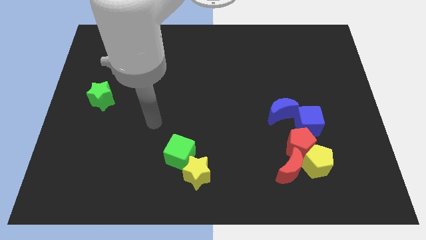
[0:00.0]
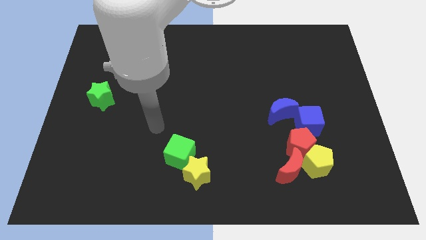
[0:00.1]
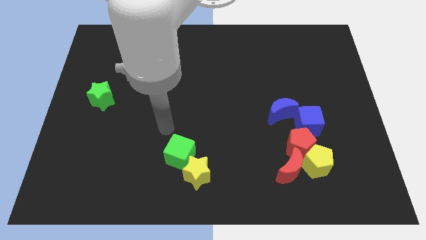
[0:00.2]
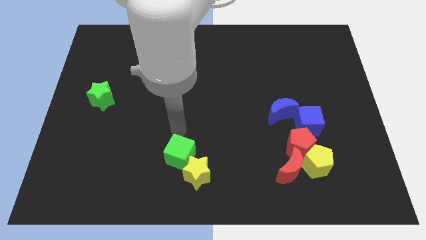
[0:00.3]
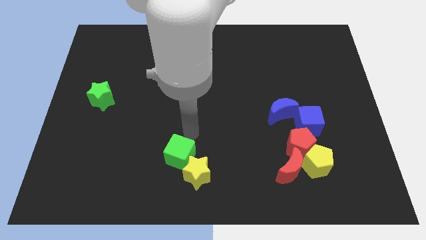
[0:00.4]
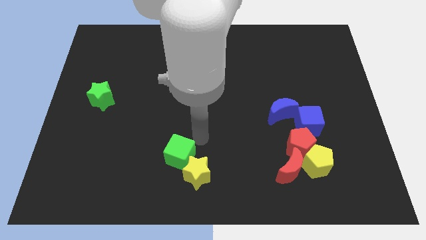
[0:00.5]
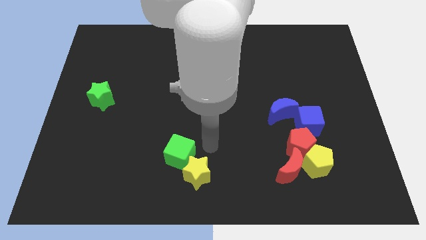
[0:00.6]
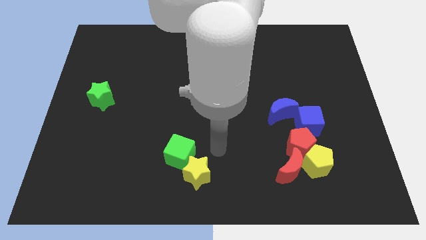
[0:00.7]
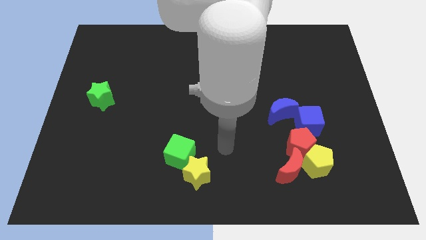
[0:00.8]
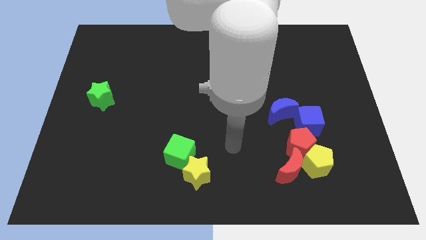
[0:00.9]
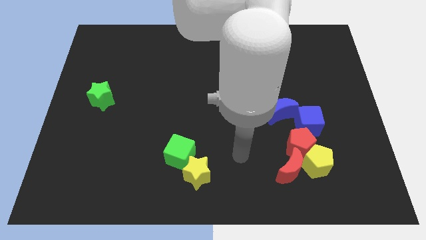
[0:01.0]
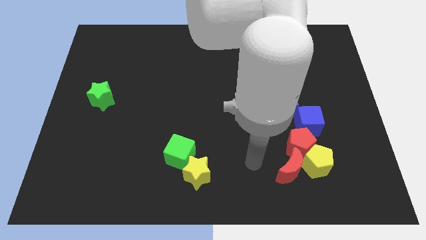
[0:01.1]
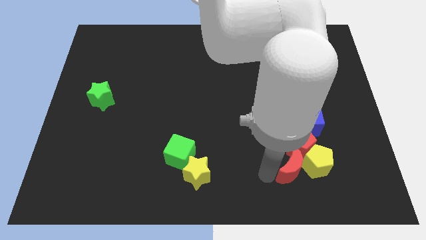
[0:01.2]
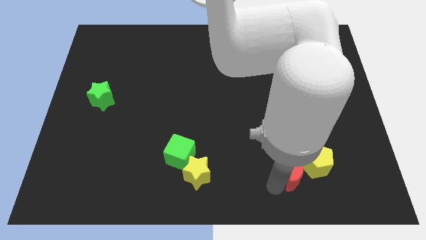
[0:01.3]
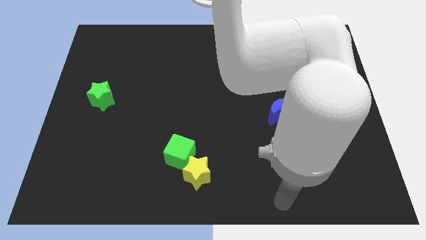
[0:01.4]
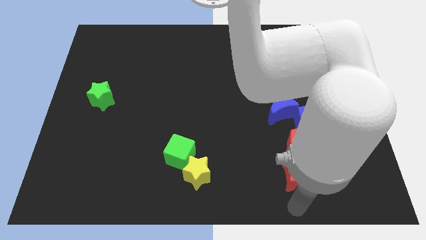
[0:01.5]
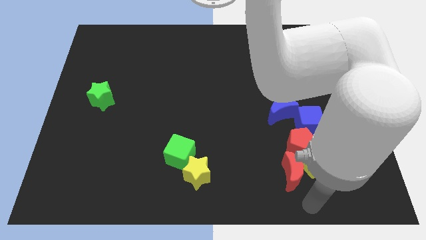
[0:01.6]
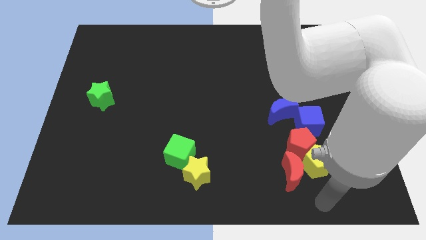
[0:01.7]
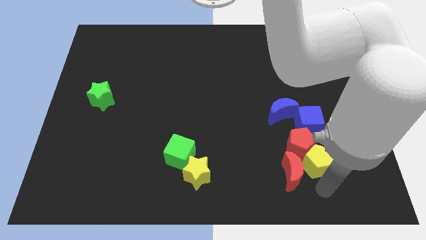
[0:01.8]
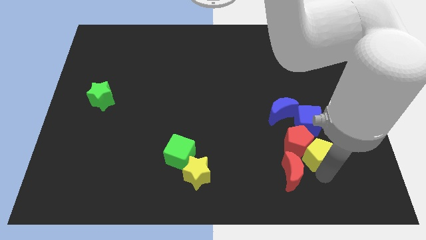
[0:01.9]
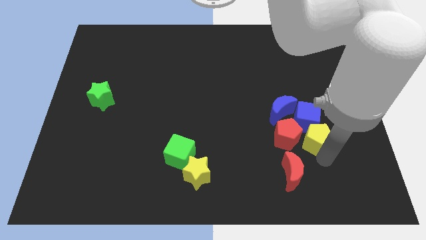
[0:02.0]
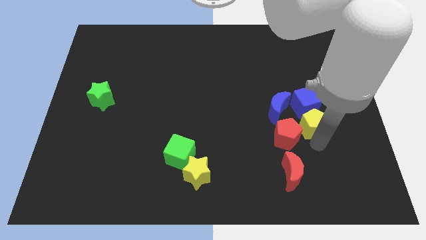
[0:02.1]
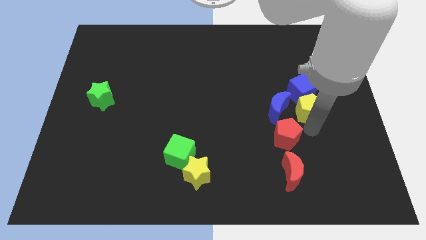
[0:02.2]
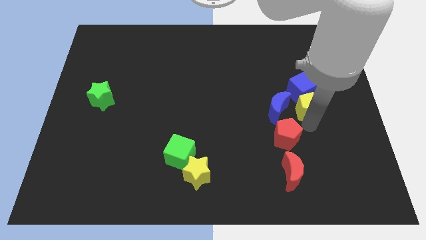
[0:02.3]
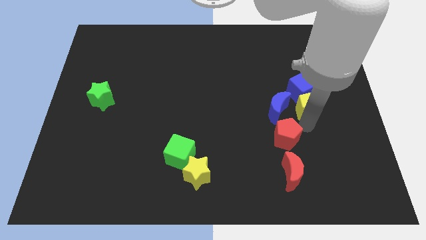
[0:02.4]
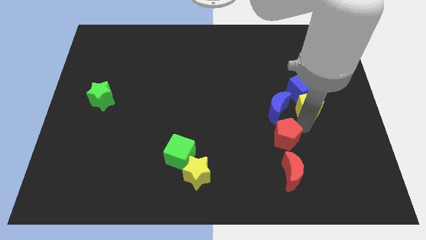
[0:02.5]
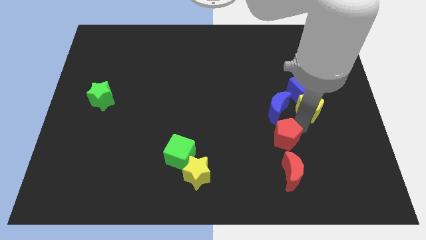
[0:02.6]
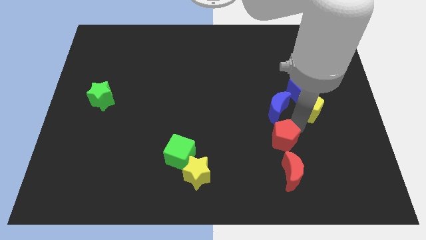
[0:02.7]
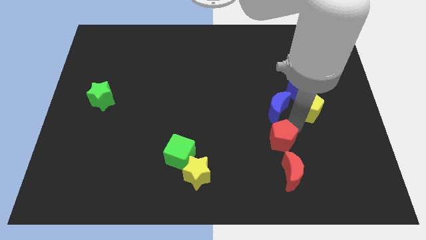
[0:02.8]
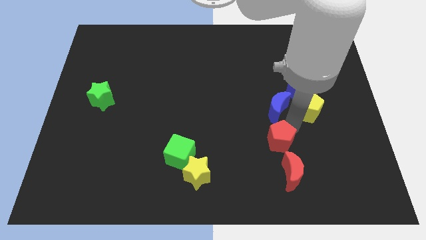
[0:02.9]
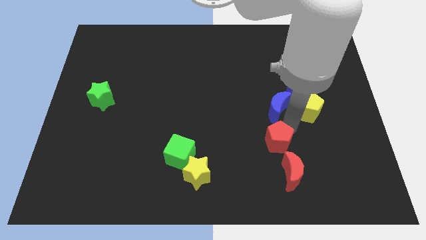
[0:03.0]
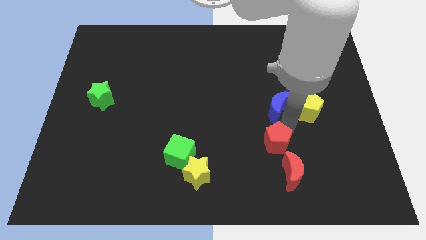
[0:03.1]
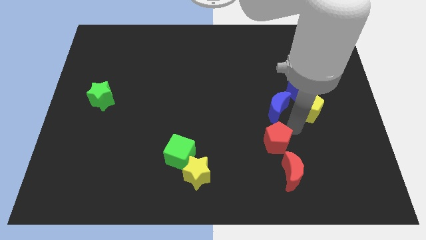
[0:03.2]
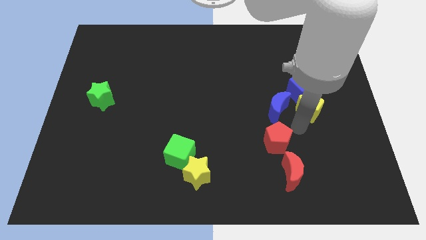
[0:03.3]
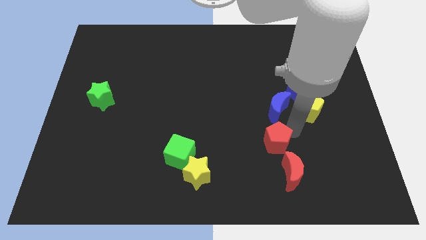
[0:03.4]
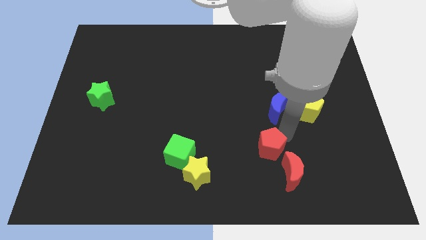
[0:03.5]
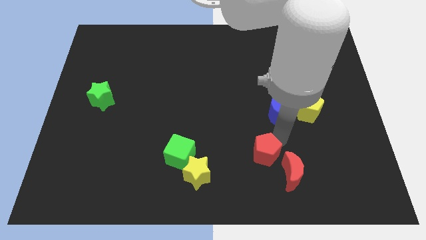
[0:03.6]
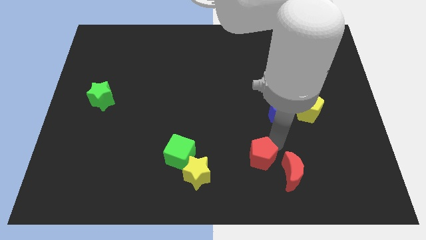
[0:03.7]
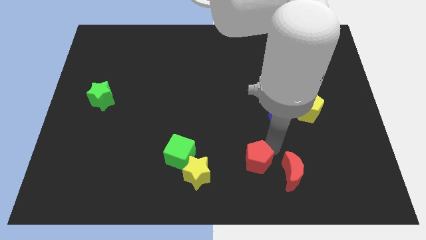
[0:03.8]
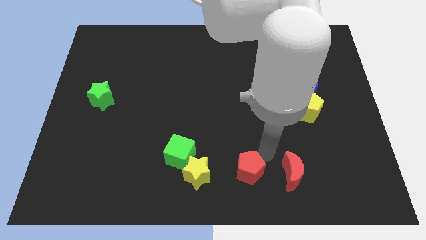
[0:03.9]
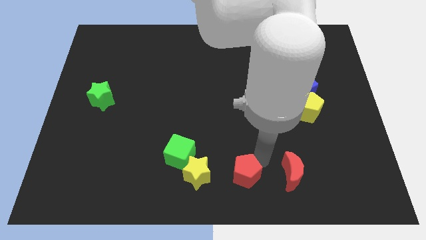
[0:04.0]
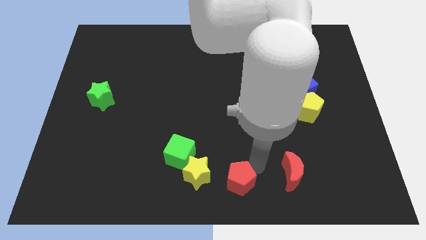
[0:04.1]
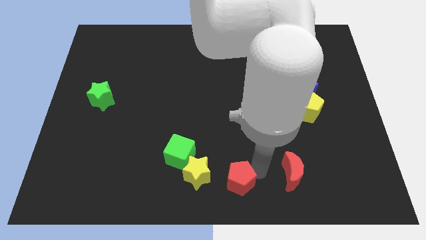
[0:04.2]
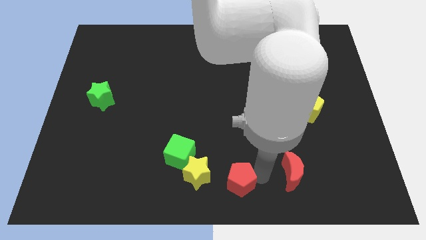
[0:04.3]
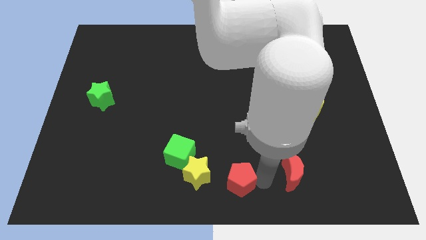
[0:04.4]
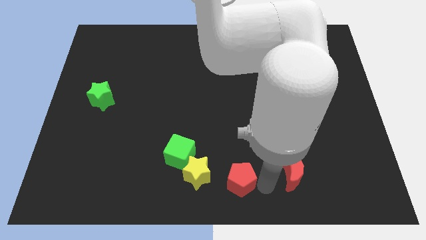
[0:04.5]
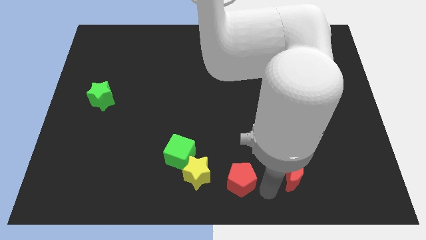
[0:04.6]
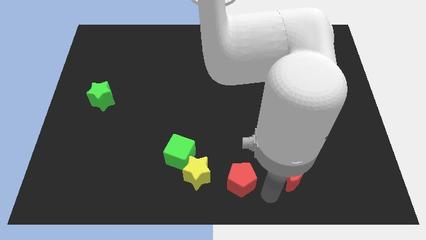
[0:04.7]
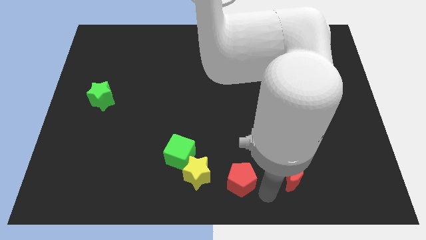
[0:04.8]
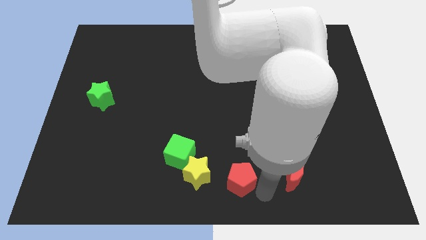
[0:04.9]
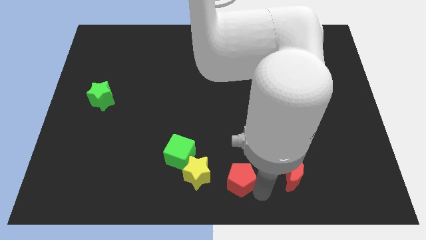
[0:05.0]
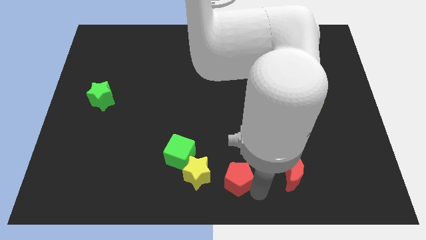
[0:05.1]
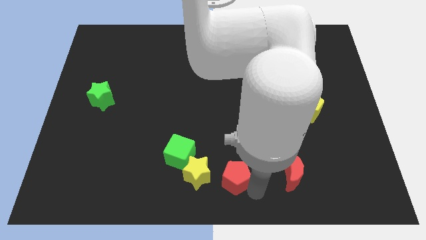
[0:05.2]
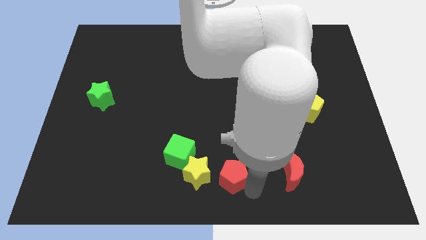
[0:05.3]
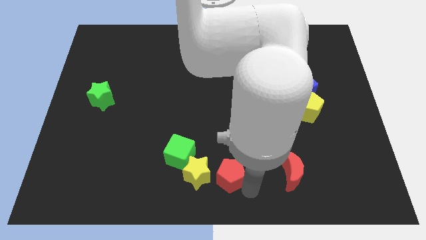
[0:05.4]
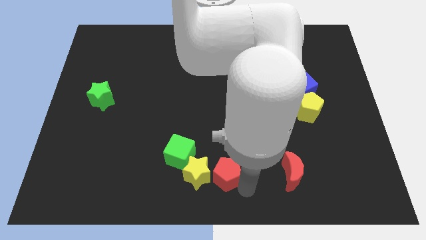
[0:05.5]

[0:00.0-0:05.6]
slide the red pentagon close to the yellow star

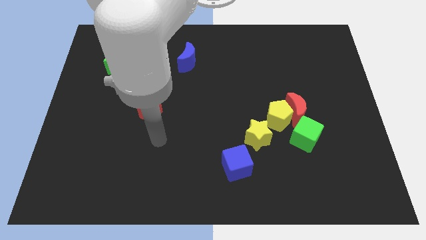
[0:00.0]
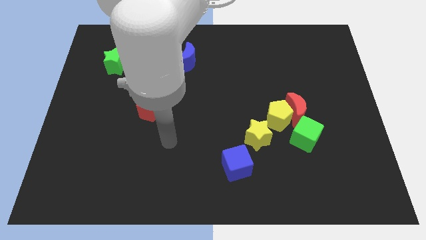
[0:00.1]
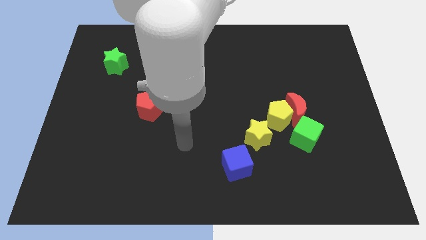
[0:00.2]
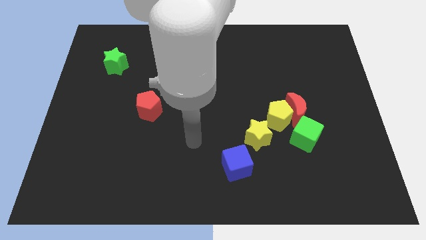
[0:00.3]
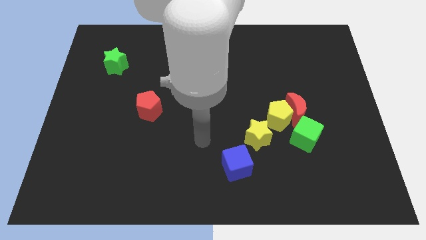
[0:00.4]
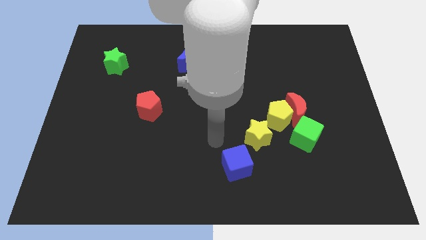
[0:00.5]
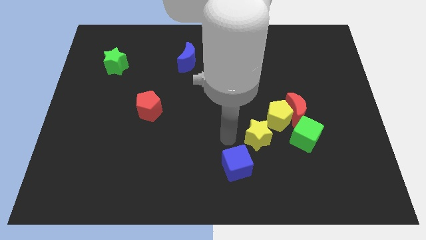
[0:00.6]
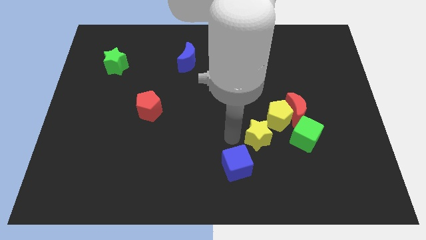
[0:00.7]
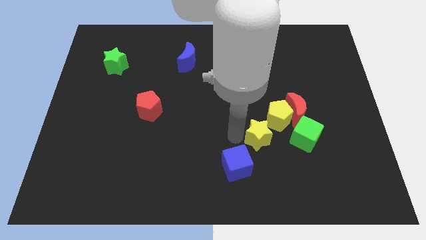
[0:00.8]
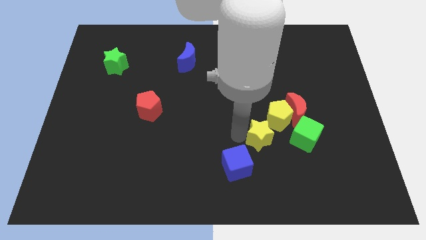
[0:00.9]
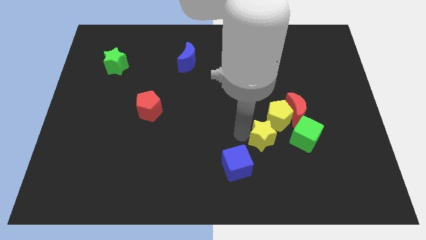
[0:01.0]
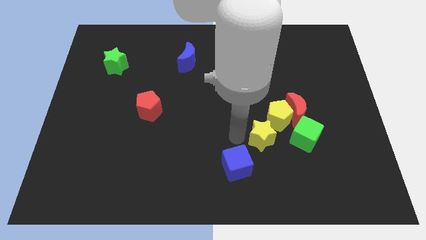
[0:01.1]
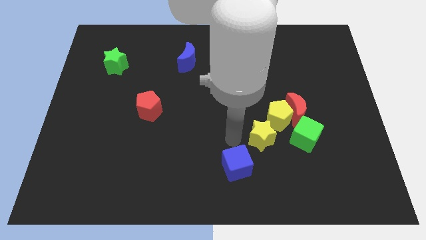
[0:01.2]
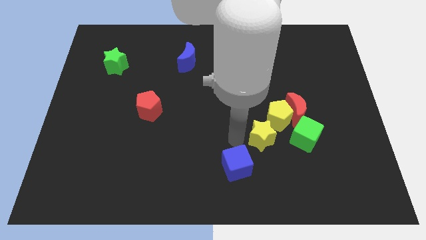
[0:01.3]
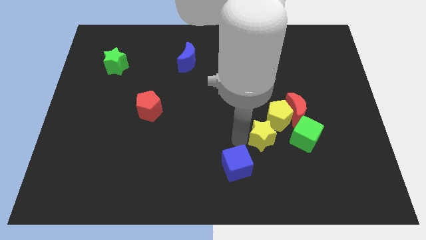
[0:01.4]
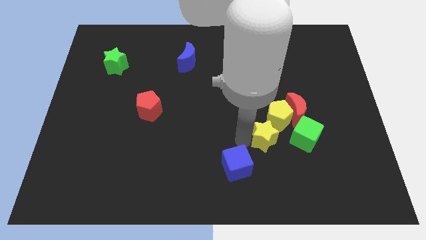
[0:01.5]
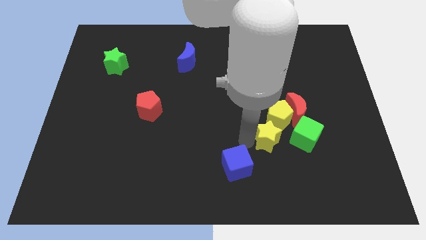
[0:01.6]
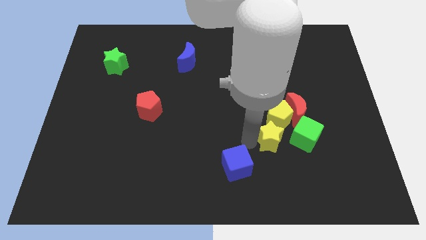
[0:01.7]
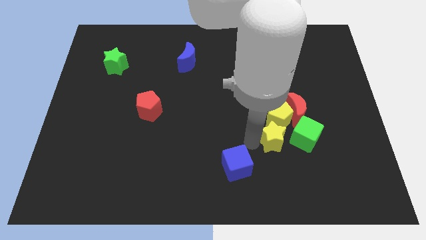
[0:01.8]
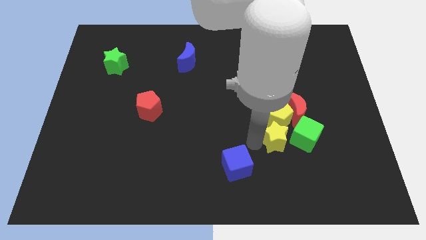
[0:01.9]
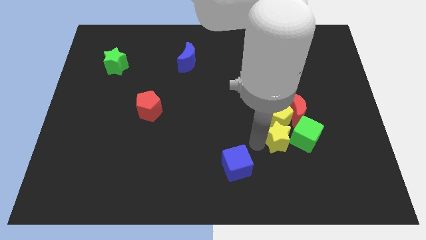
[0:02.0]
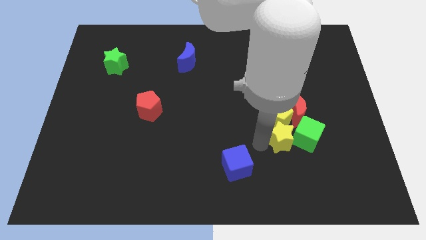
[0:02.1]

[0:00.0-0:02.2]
put the yellow star next to the green cube

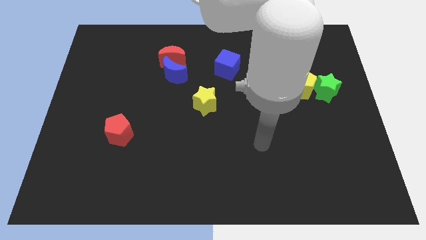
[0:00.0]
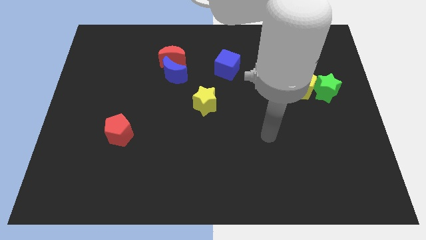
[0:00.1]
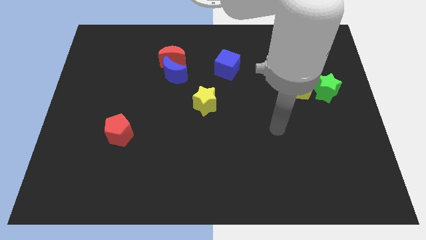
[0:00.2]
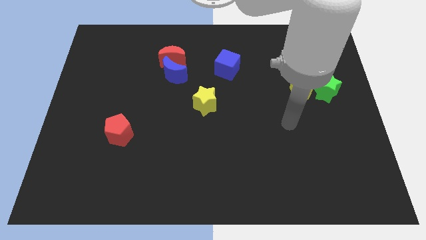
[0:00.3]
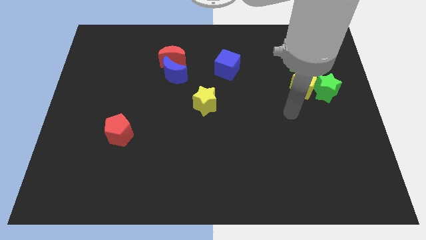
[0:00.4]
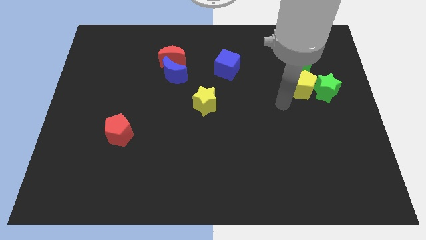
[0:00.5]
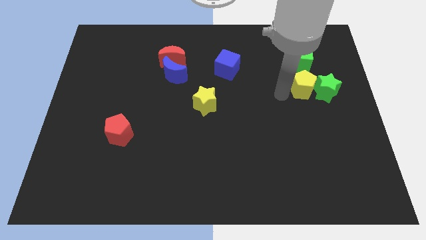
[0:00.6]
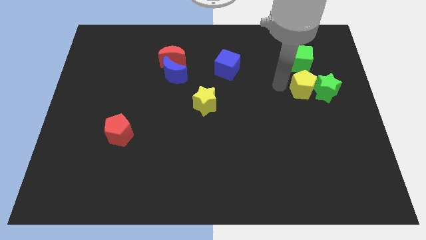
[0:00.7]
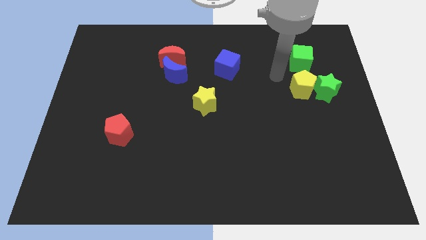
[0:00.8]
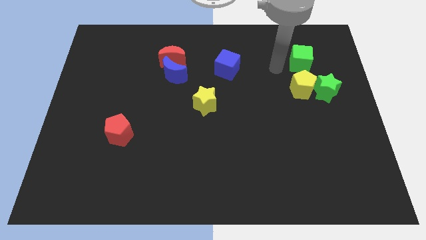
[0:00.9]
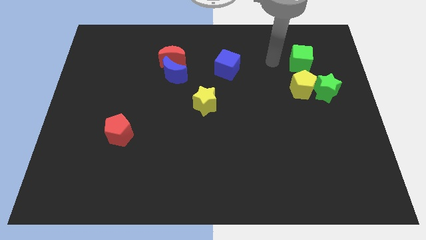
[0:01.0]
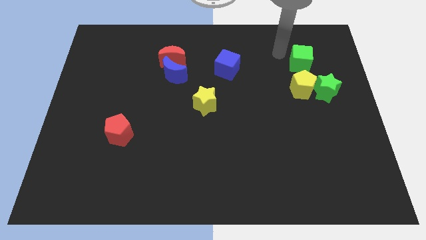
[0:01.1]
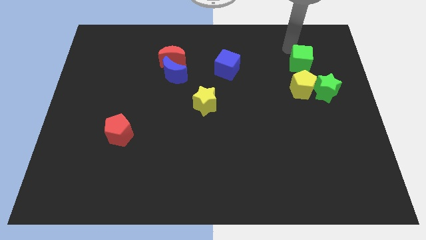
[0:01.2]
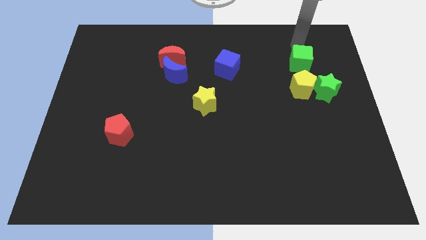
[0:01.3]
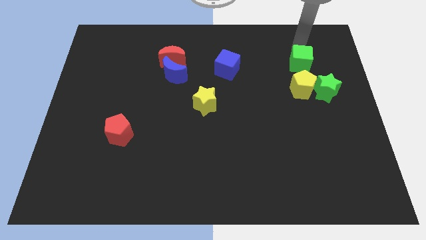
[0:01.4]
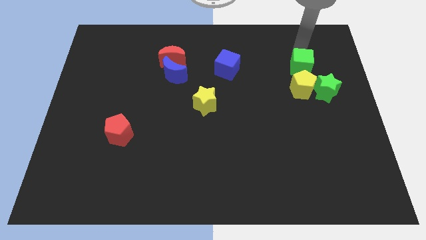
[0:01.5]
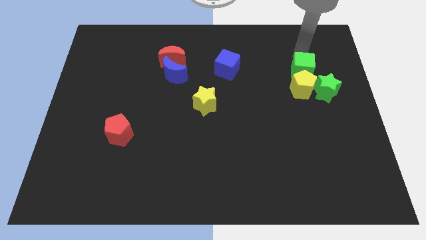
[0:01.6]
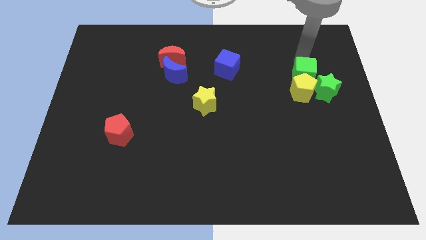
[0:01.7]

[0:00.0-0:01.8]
push the green cube to the yellow pentagon
